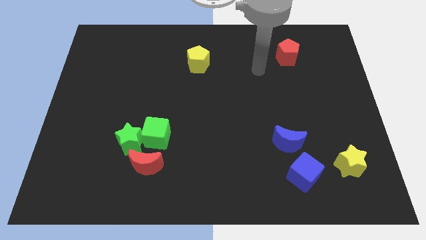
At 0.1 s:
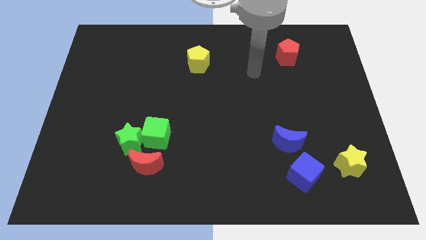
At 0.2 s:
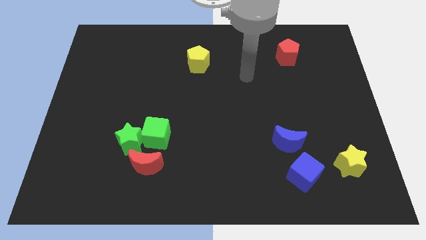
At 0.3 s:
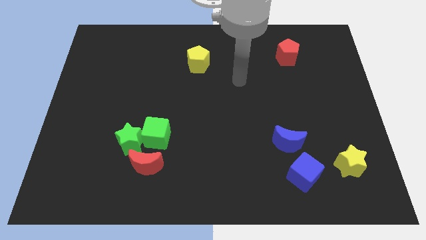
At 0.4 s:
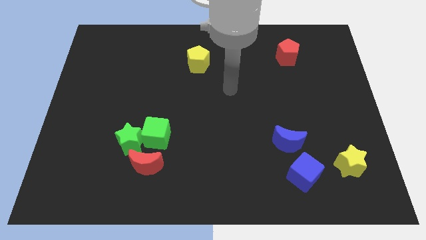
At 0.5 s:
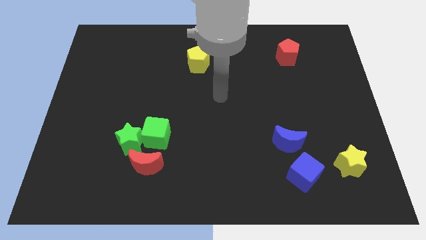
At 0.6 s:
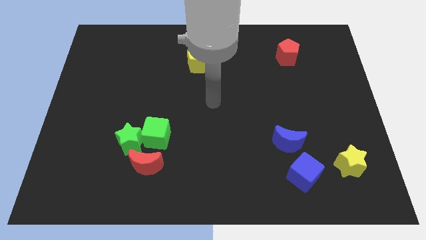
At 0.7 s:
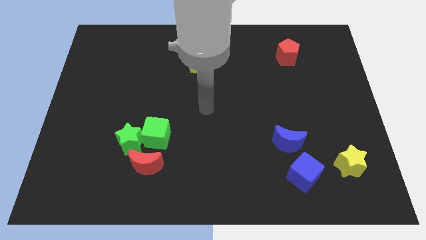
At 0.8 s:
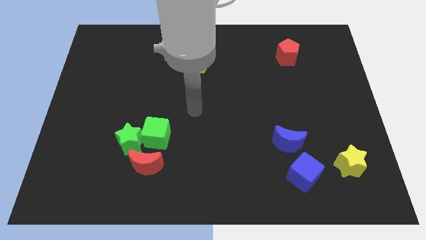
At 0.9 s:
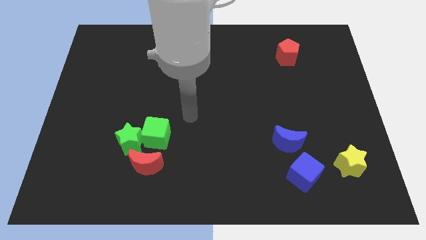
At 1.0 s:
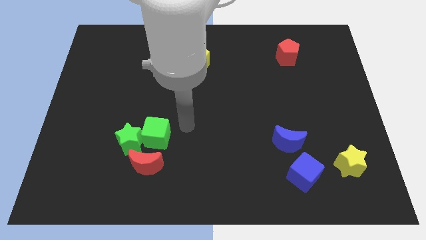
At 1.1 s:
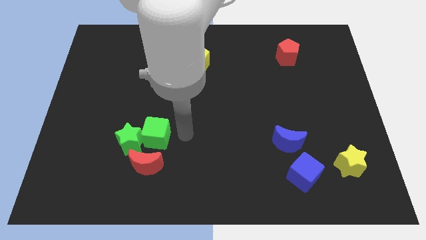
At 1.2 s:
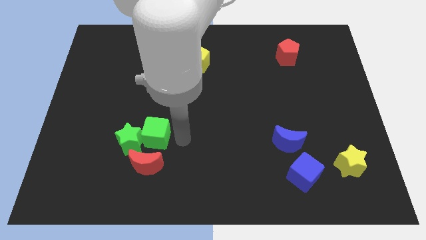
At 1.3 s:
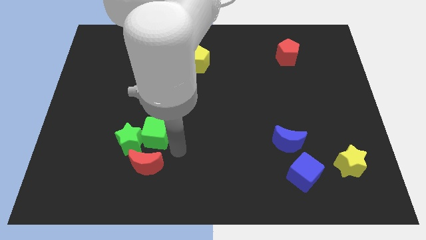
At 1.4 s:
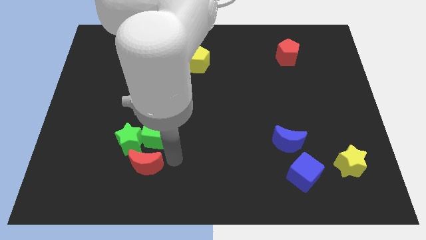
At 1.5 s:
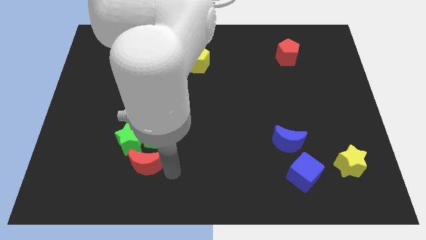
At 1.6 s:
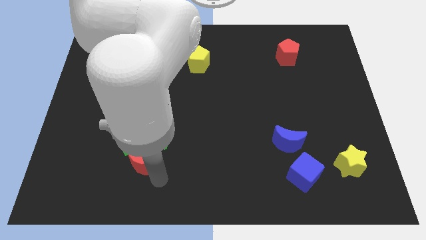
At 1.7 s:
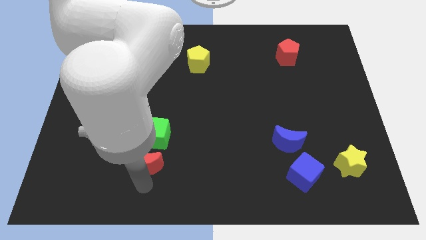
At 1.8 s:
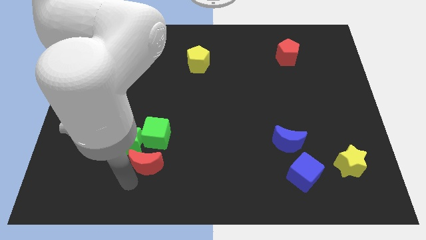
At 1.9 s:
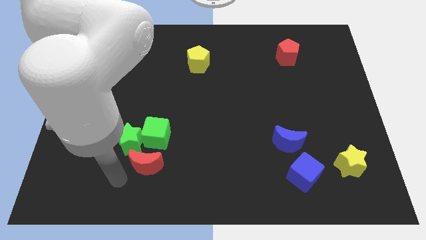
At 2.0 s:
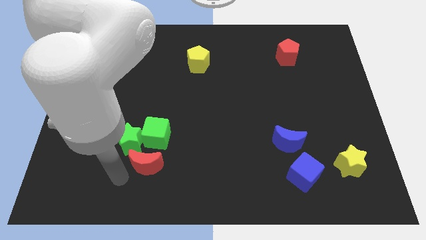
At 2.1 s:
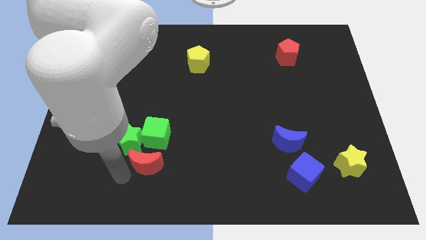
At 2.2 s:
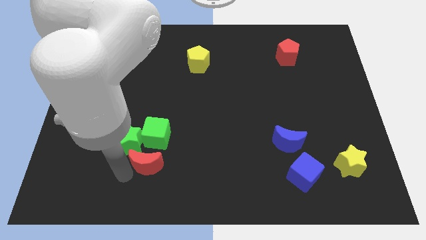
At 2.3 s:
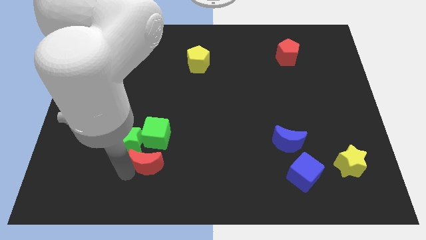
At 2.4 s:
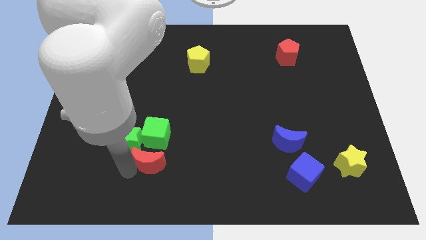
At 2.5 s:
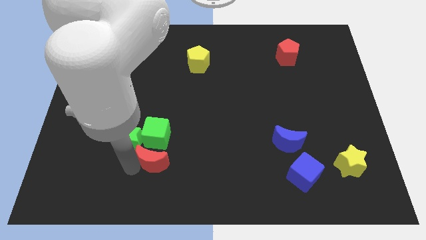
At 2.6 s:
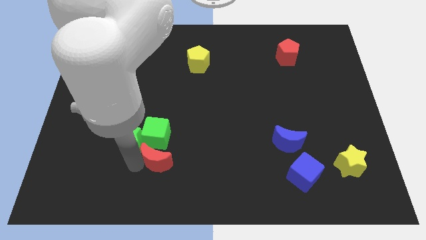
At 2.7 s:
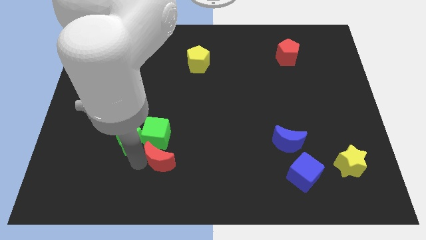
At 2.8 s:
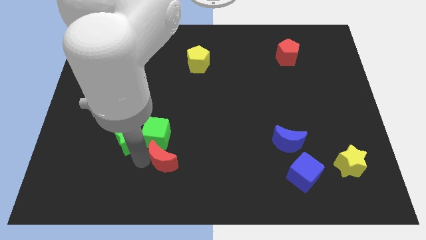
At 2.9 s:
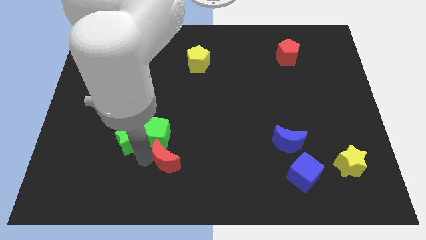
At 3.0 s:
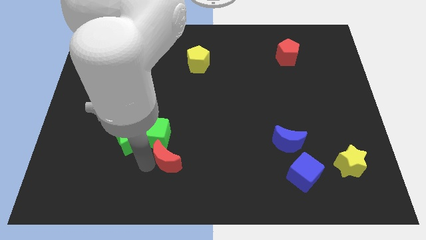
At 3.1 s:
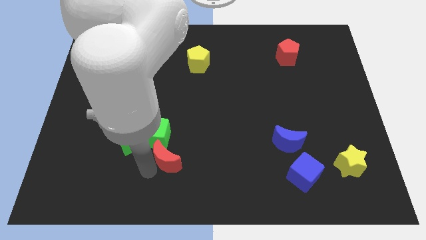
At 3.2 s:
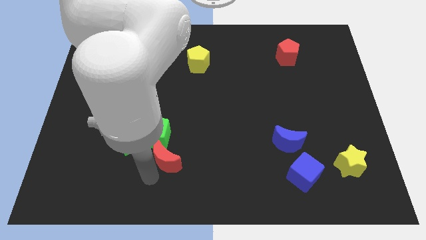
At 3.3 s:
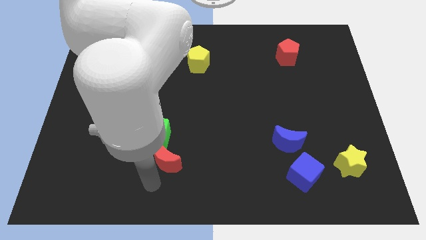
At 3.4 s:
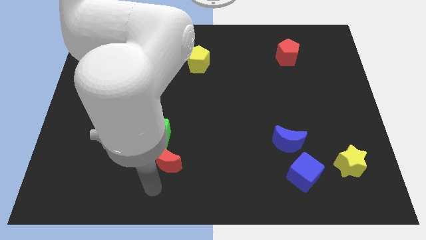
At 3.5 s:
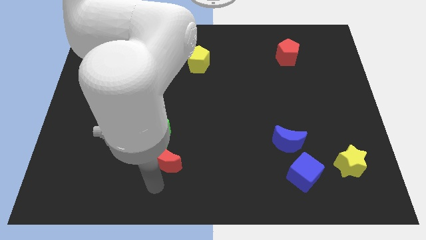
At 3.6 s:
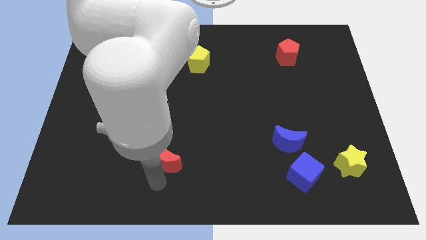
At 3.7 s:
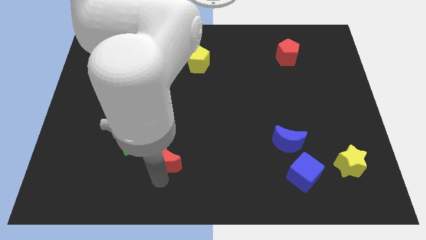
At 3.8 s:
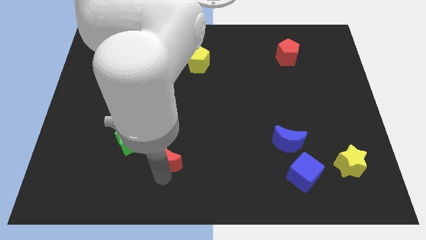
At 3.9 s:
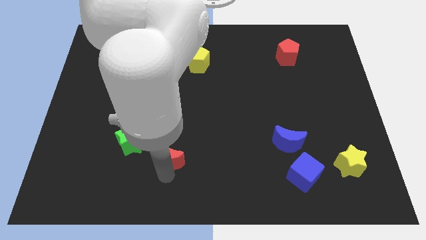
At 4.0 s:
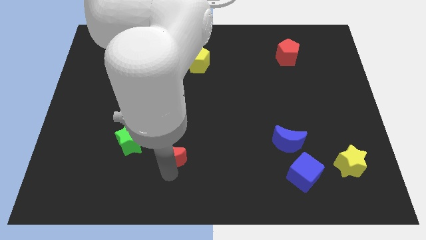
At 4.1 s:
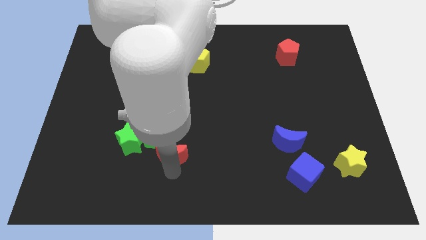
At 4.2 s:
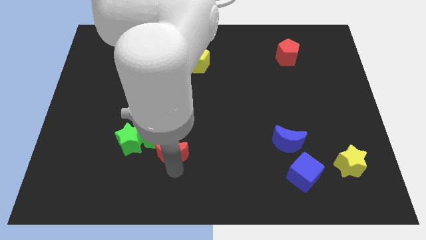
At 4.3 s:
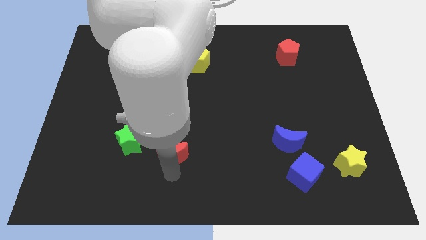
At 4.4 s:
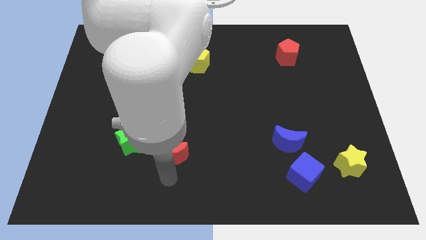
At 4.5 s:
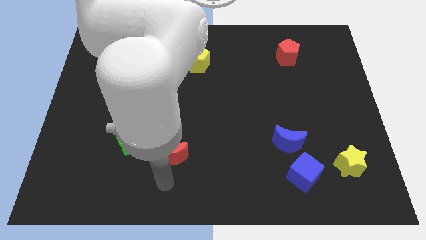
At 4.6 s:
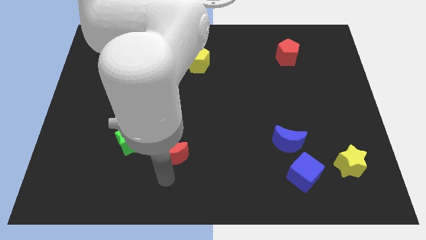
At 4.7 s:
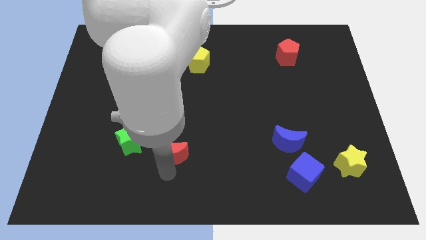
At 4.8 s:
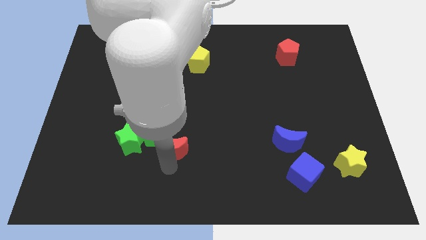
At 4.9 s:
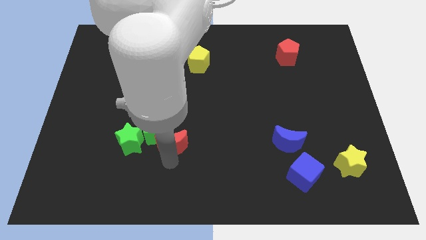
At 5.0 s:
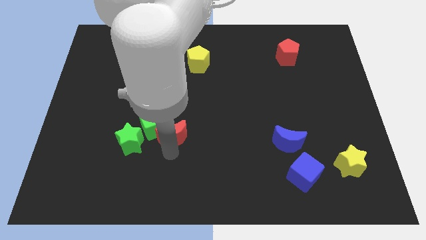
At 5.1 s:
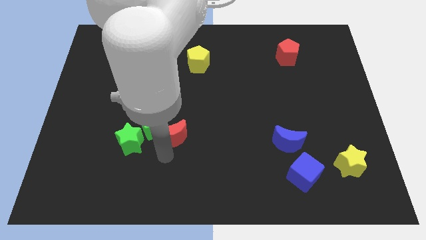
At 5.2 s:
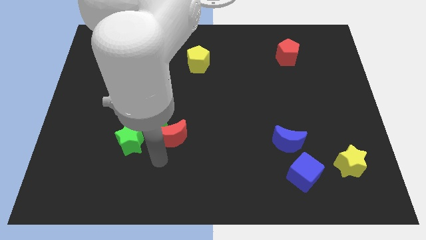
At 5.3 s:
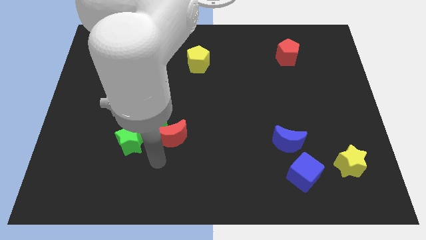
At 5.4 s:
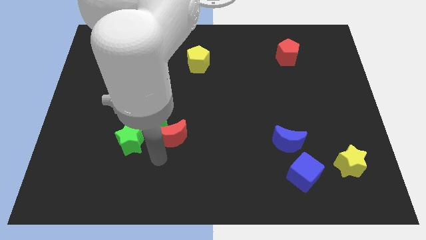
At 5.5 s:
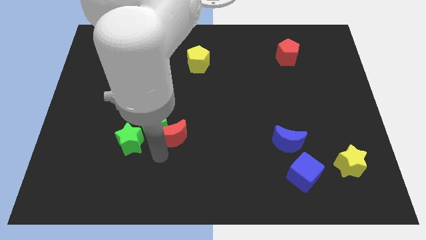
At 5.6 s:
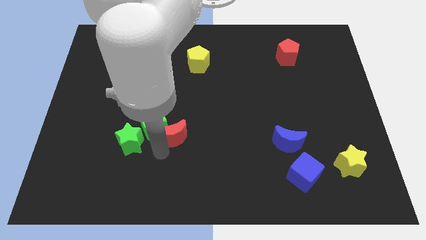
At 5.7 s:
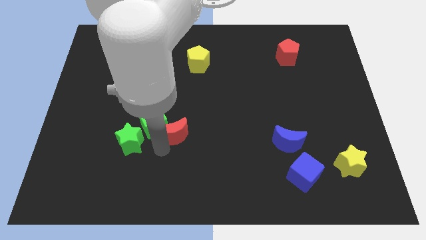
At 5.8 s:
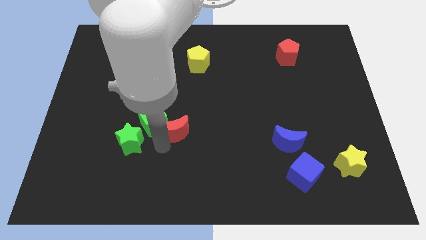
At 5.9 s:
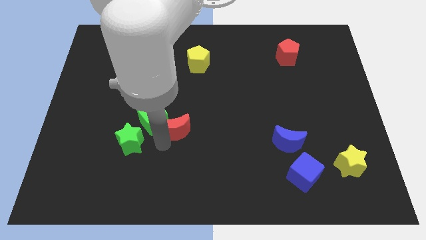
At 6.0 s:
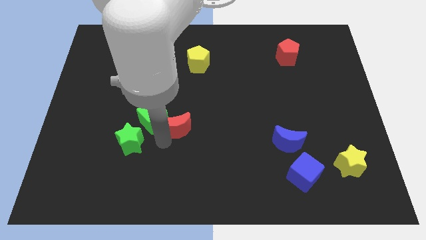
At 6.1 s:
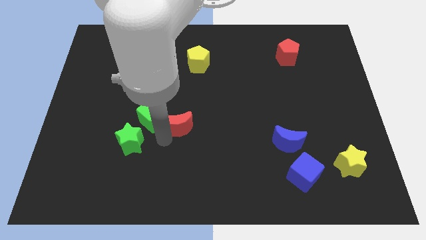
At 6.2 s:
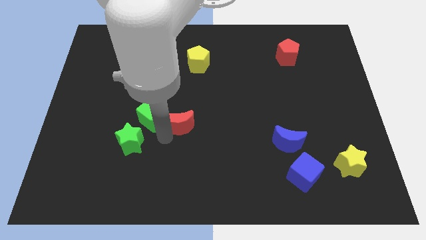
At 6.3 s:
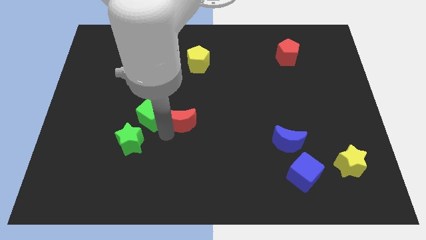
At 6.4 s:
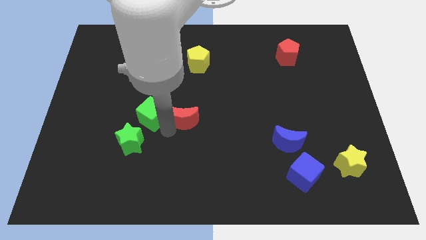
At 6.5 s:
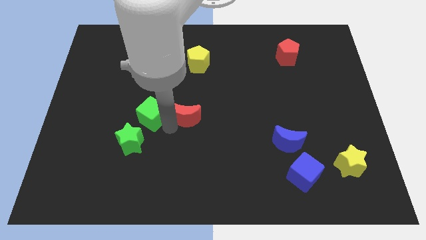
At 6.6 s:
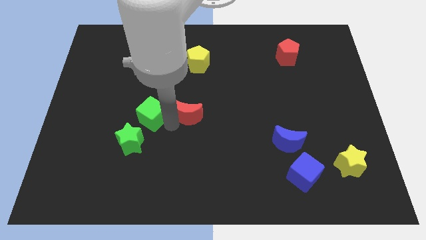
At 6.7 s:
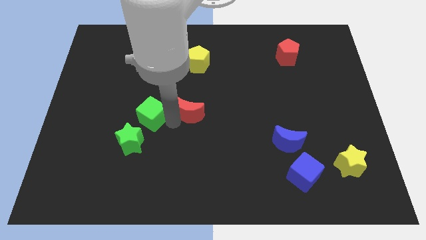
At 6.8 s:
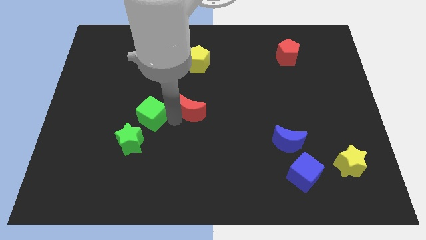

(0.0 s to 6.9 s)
move the red moon below the yellow pentagon
